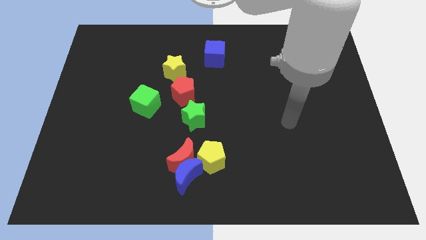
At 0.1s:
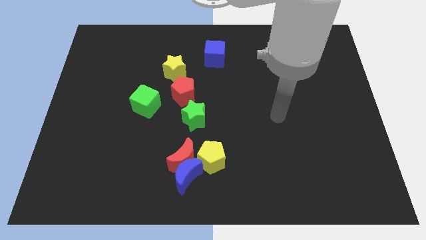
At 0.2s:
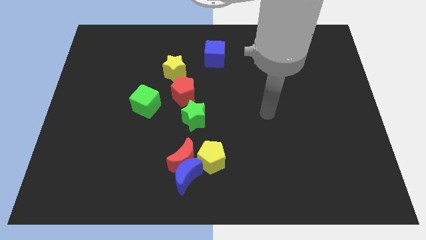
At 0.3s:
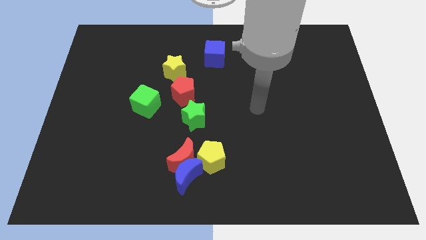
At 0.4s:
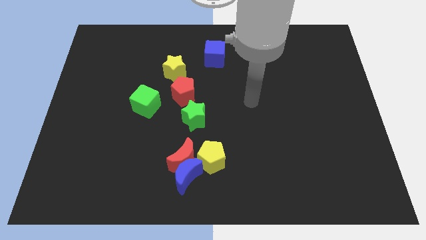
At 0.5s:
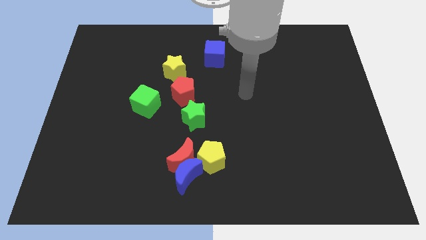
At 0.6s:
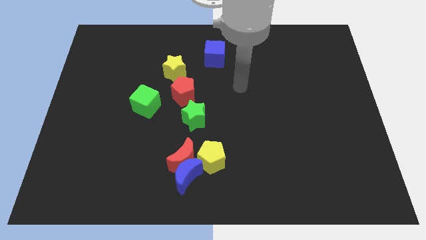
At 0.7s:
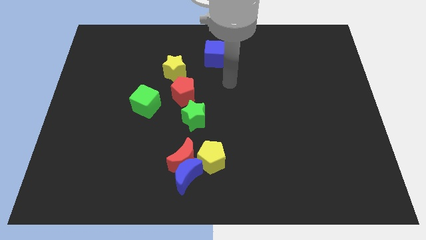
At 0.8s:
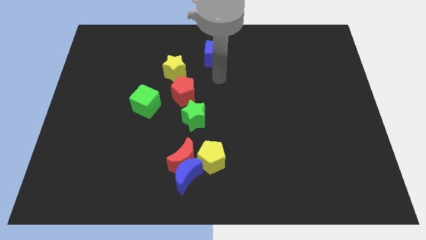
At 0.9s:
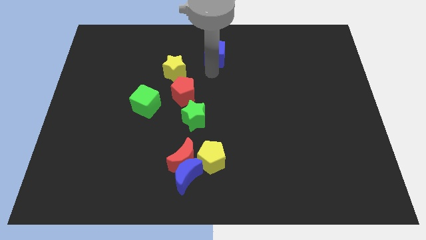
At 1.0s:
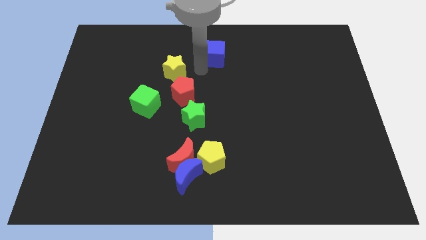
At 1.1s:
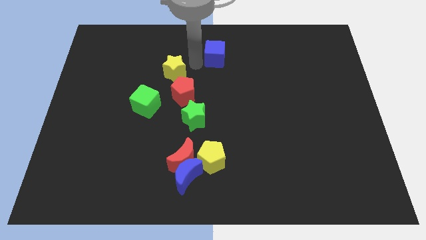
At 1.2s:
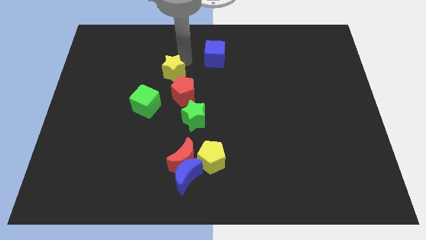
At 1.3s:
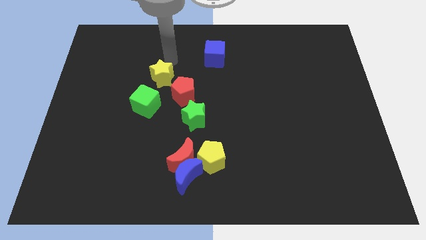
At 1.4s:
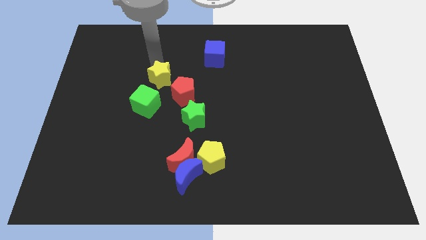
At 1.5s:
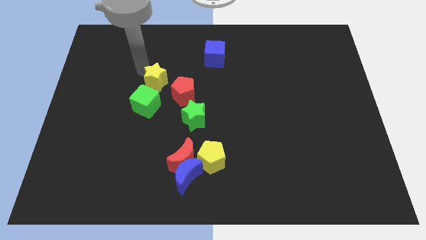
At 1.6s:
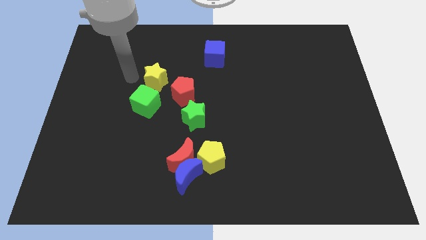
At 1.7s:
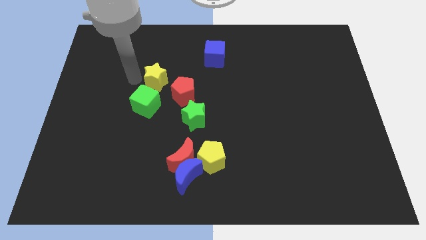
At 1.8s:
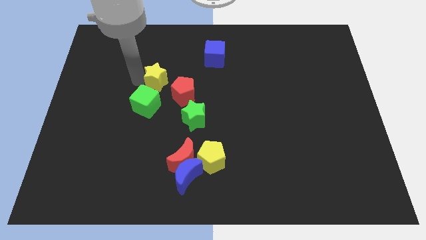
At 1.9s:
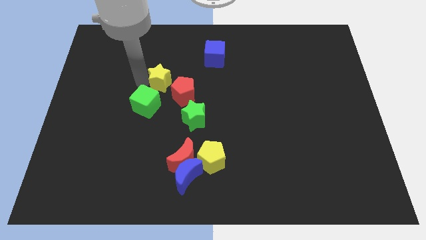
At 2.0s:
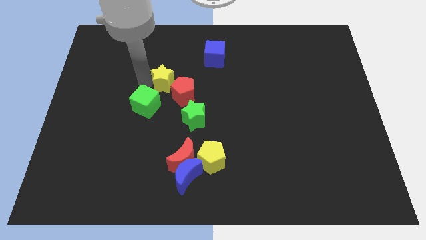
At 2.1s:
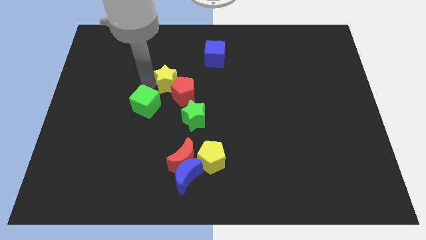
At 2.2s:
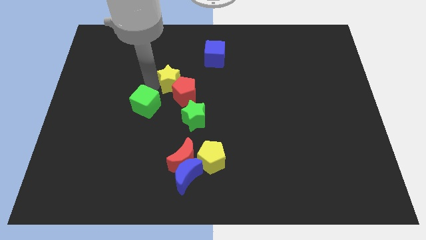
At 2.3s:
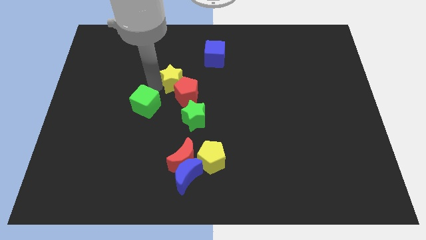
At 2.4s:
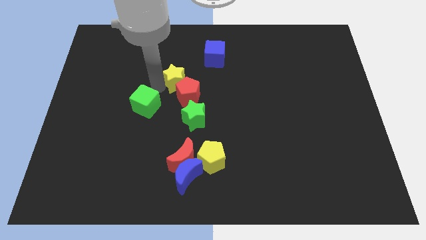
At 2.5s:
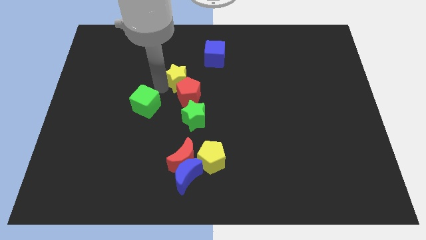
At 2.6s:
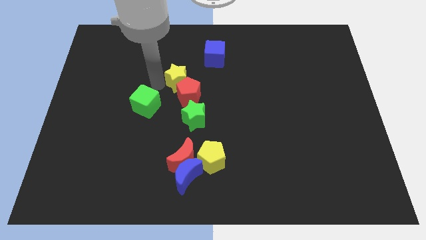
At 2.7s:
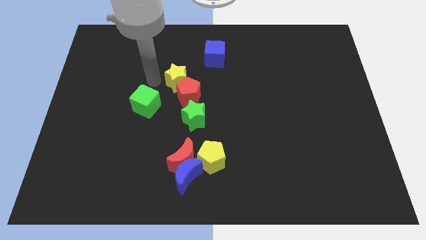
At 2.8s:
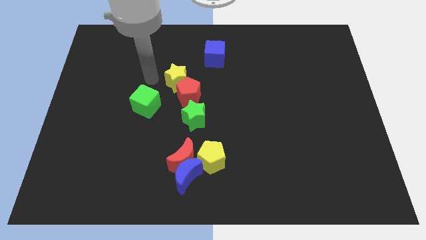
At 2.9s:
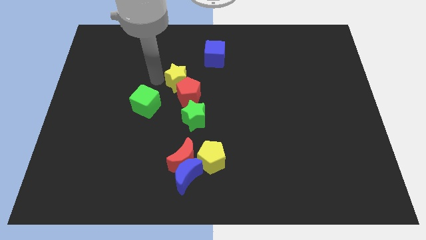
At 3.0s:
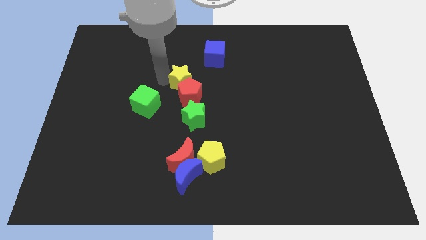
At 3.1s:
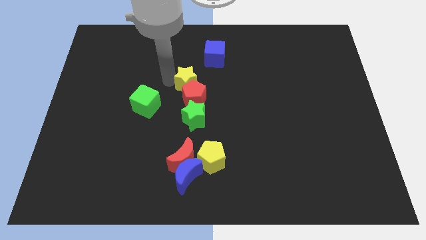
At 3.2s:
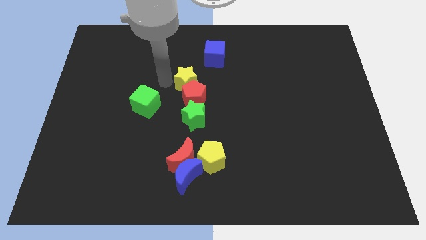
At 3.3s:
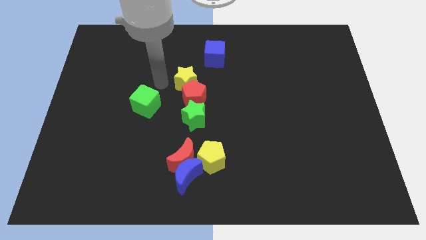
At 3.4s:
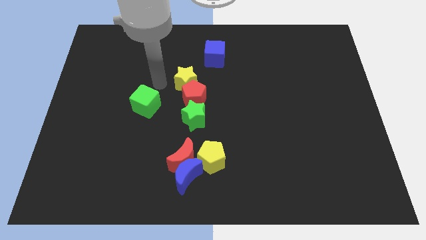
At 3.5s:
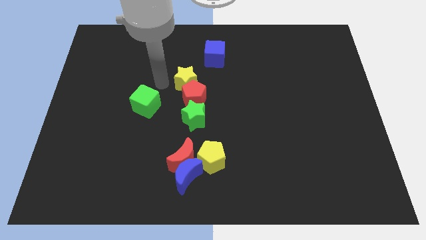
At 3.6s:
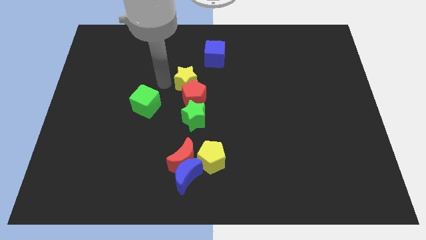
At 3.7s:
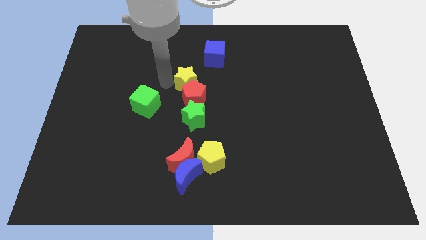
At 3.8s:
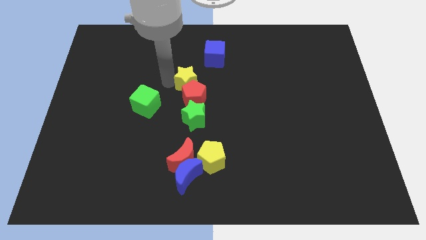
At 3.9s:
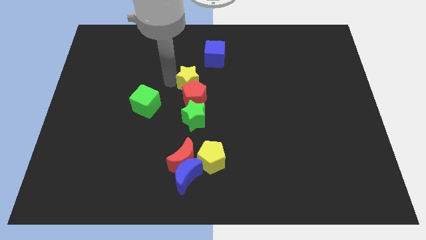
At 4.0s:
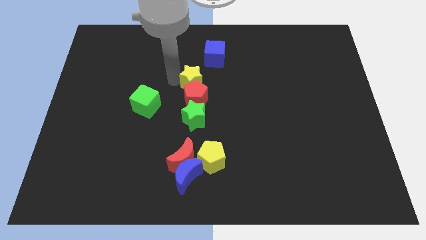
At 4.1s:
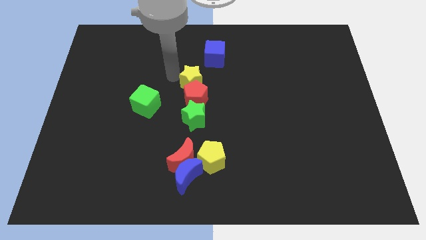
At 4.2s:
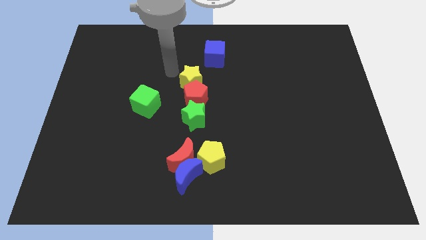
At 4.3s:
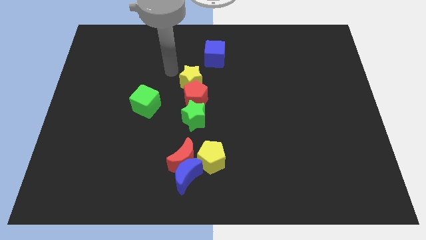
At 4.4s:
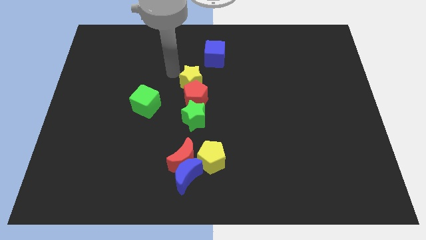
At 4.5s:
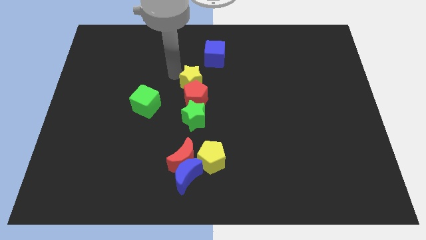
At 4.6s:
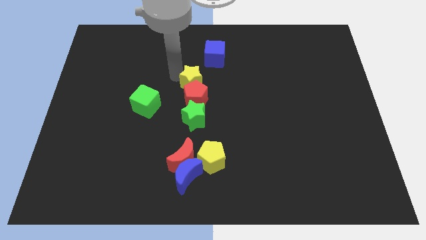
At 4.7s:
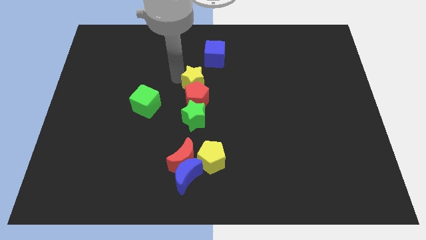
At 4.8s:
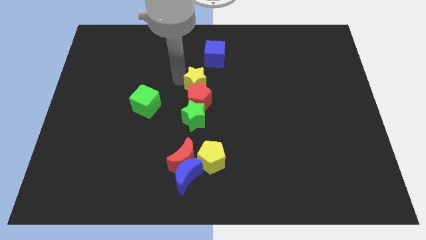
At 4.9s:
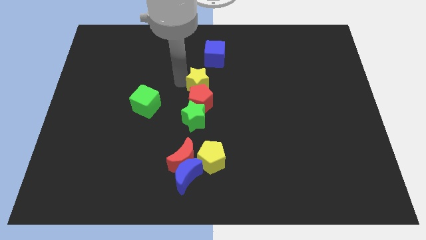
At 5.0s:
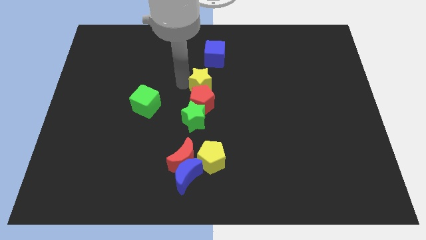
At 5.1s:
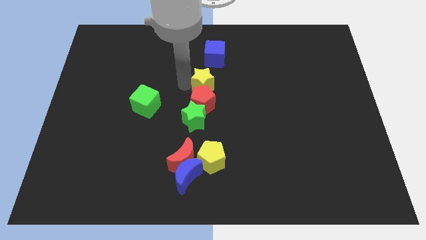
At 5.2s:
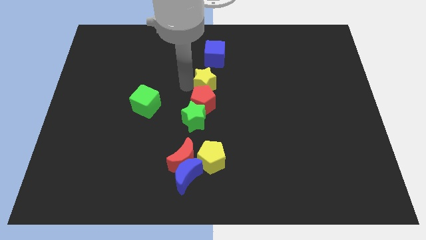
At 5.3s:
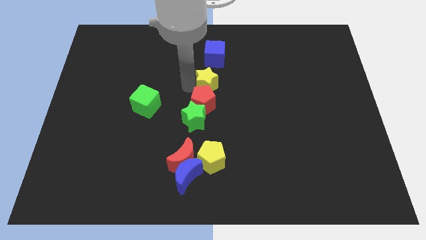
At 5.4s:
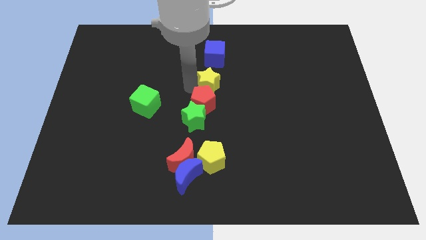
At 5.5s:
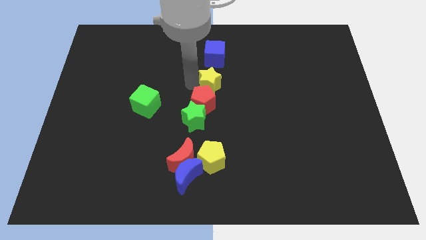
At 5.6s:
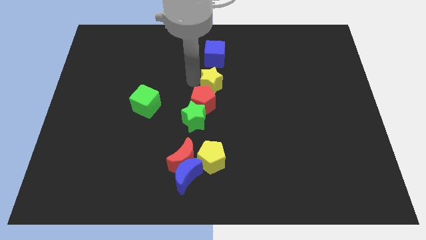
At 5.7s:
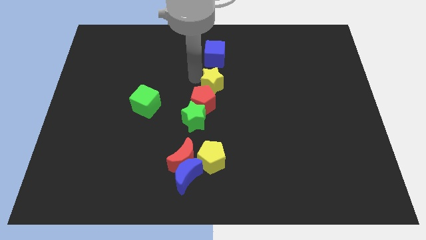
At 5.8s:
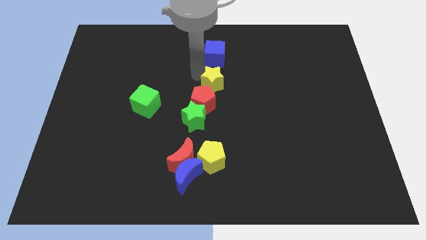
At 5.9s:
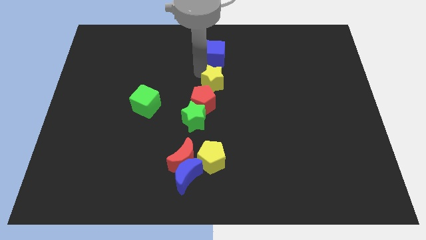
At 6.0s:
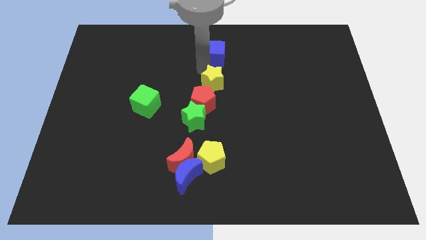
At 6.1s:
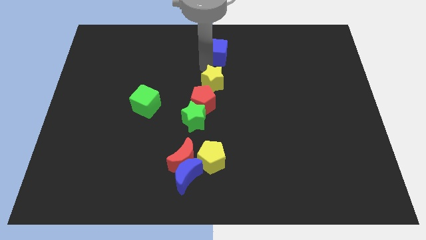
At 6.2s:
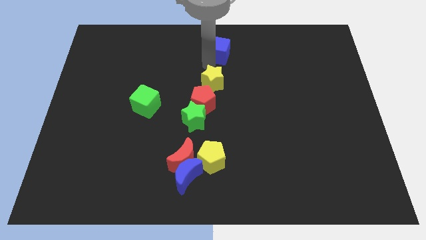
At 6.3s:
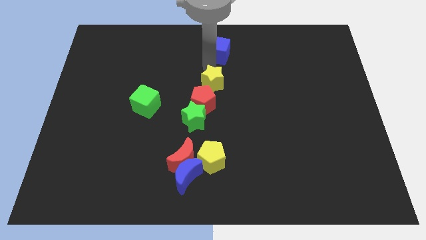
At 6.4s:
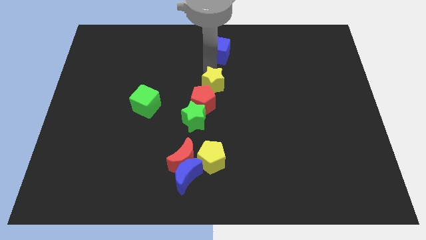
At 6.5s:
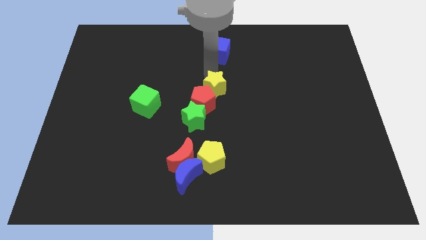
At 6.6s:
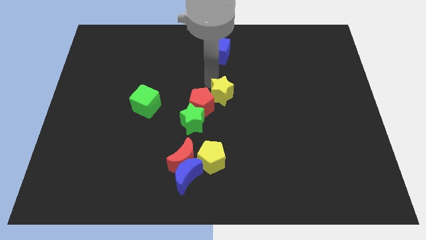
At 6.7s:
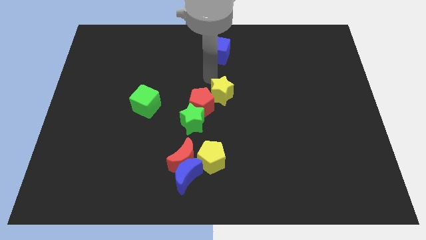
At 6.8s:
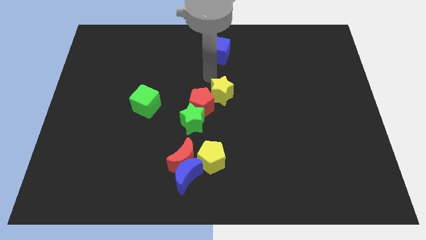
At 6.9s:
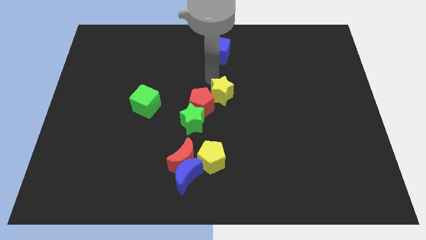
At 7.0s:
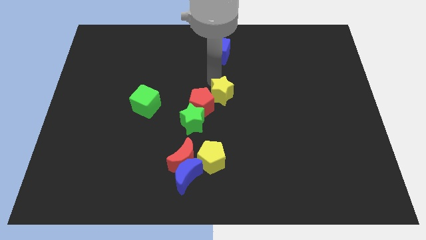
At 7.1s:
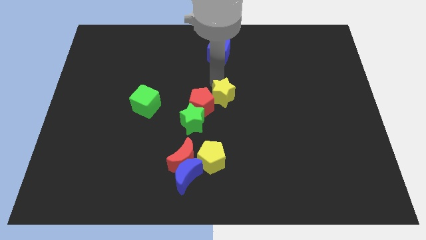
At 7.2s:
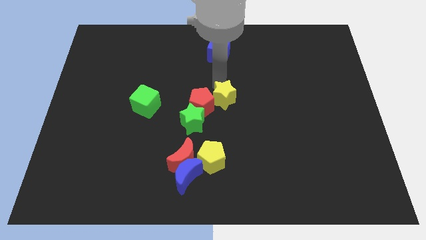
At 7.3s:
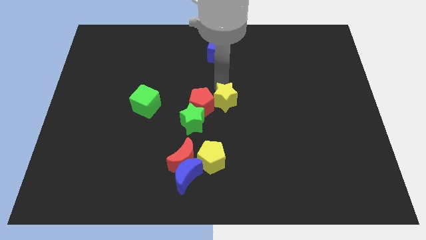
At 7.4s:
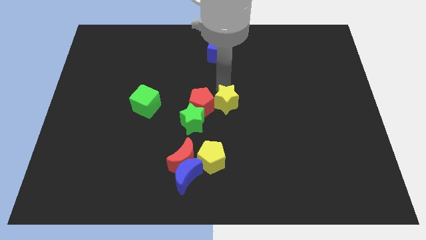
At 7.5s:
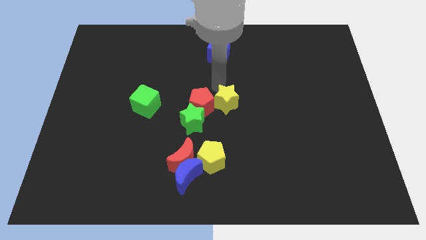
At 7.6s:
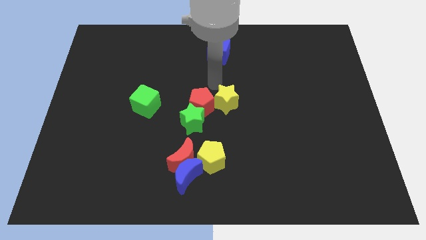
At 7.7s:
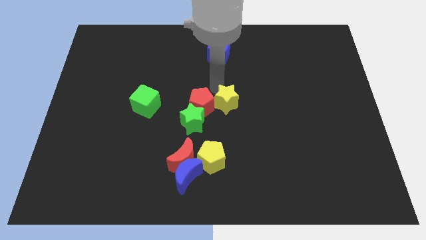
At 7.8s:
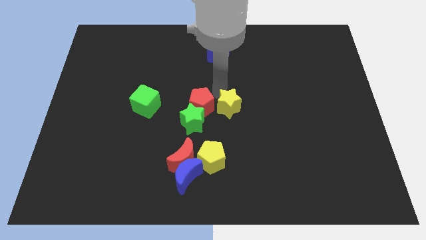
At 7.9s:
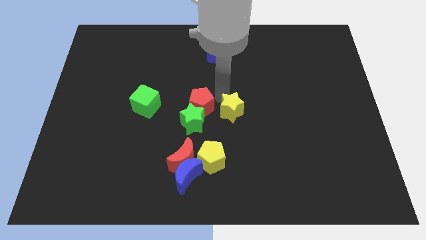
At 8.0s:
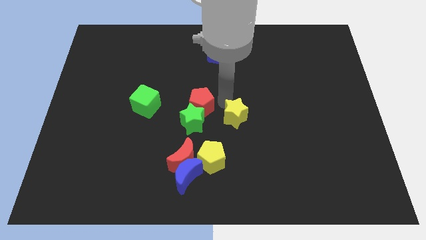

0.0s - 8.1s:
slide the yellow star diagonally down and to the right

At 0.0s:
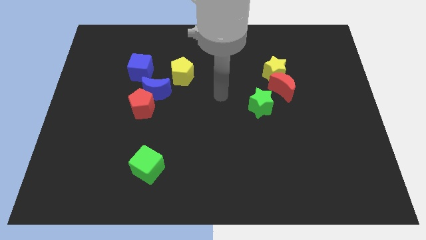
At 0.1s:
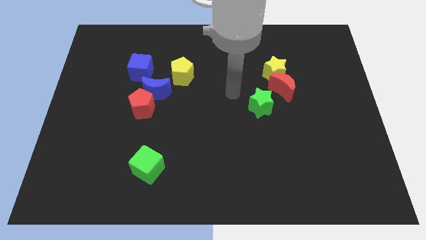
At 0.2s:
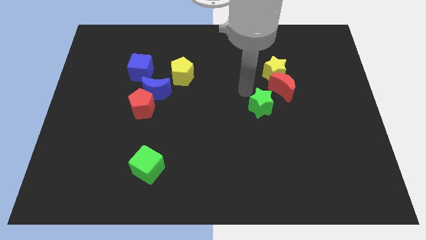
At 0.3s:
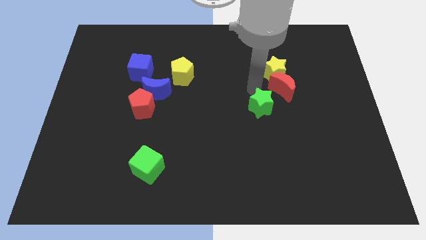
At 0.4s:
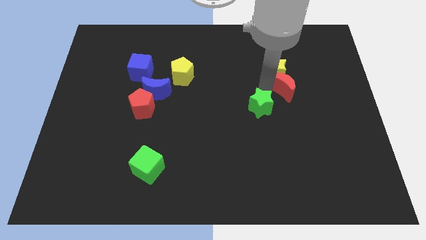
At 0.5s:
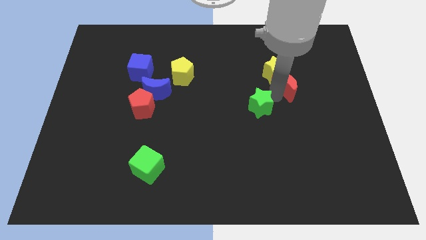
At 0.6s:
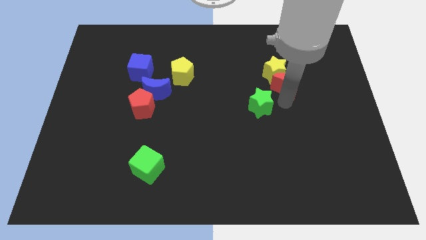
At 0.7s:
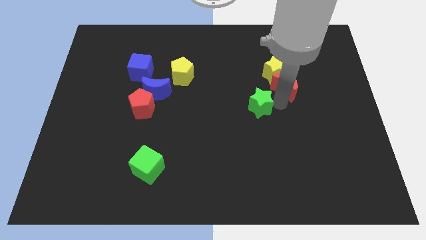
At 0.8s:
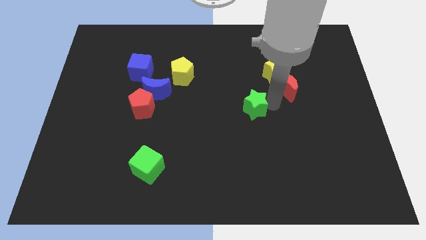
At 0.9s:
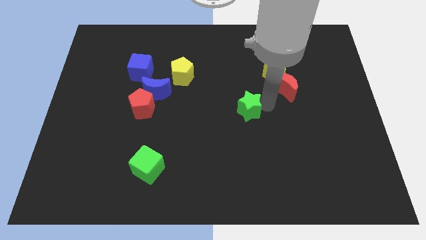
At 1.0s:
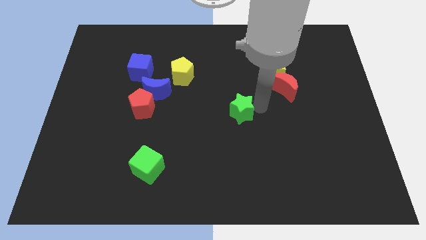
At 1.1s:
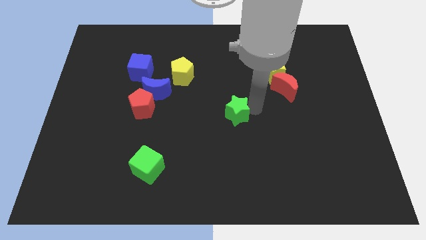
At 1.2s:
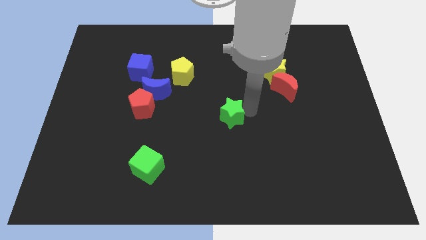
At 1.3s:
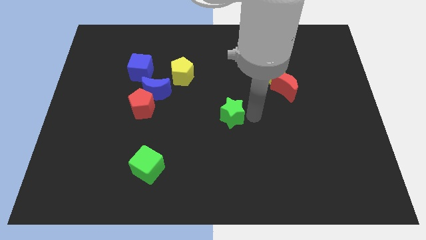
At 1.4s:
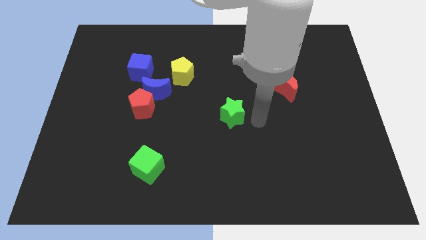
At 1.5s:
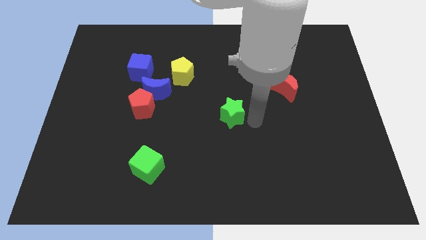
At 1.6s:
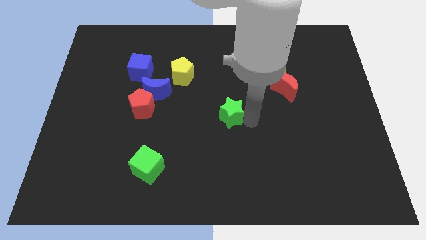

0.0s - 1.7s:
slightly push the green star left
